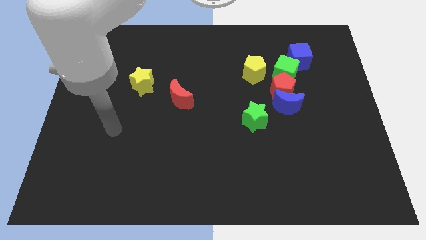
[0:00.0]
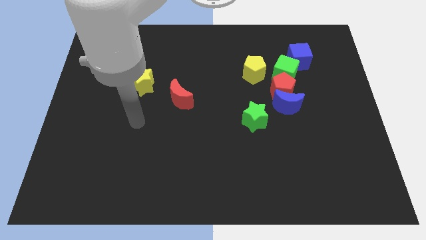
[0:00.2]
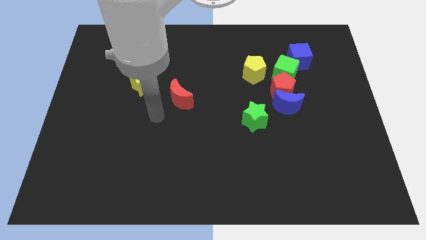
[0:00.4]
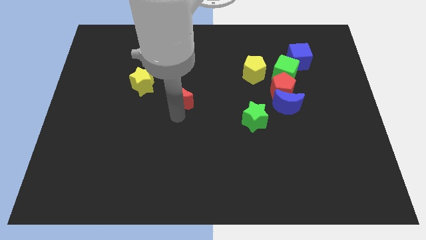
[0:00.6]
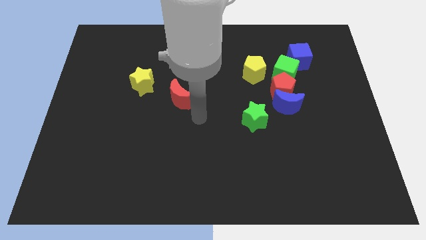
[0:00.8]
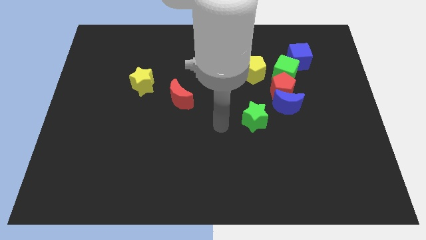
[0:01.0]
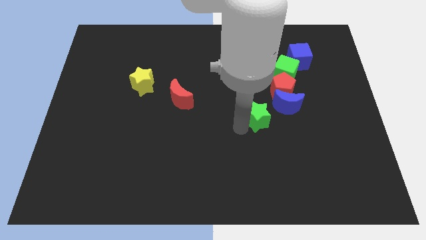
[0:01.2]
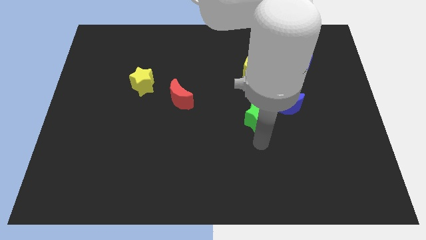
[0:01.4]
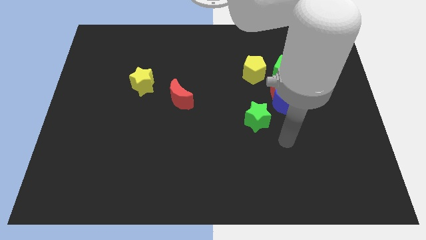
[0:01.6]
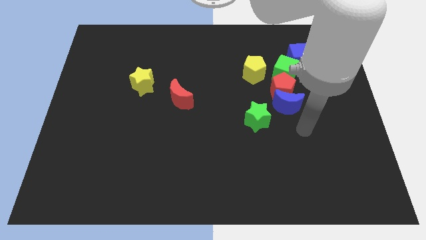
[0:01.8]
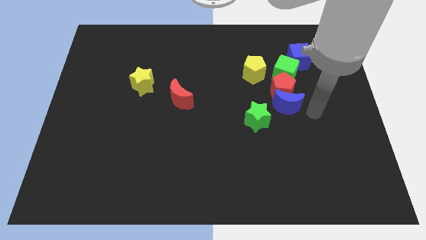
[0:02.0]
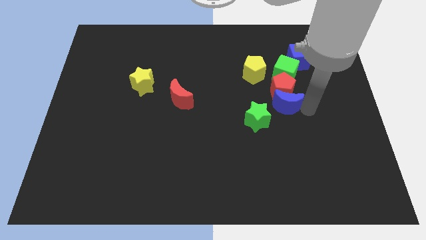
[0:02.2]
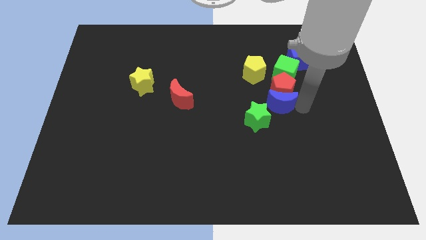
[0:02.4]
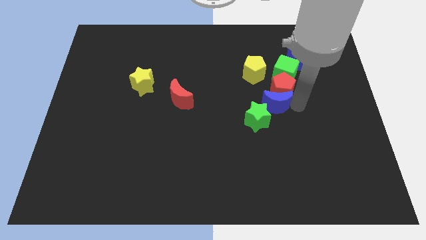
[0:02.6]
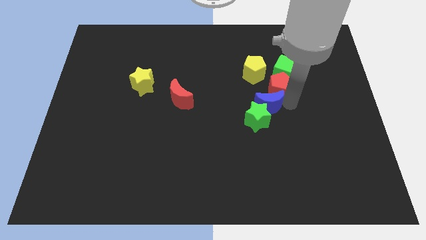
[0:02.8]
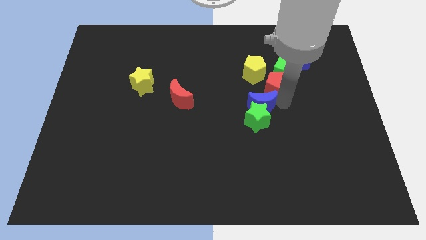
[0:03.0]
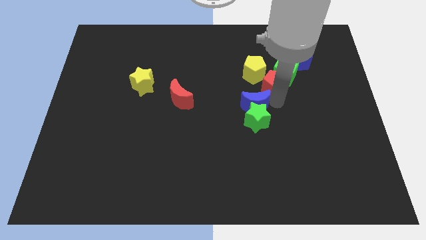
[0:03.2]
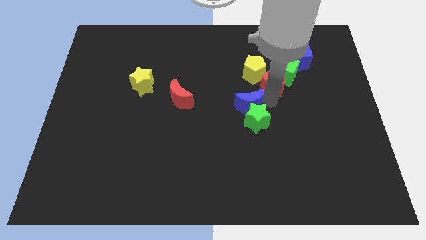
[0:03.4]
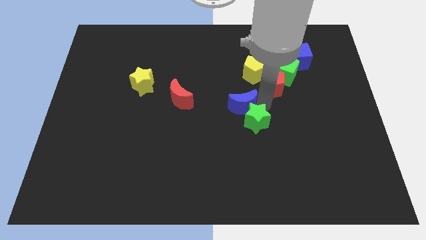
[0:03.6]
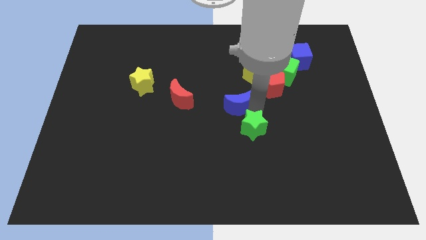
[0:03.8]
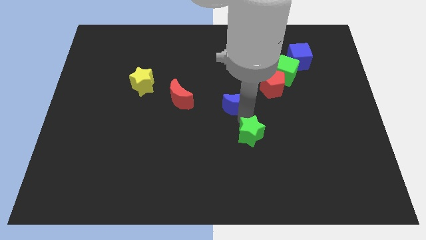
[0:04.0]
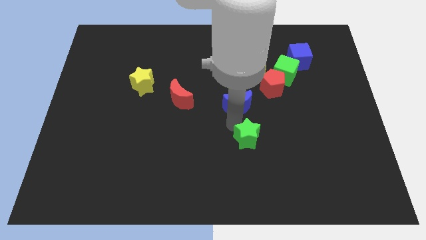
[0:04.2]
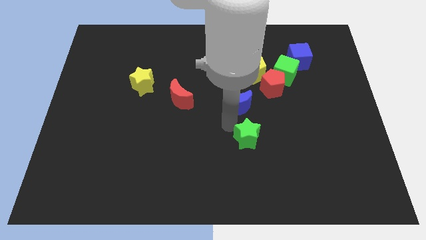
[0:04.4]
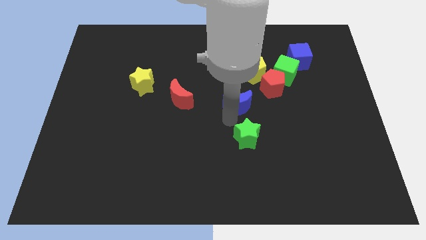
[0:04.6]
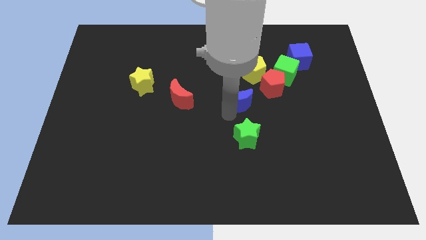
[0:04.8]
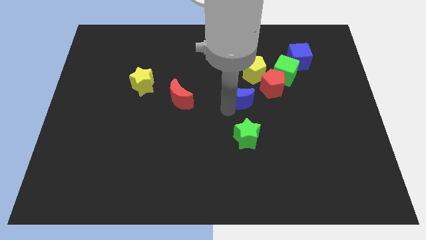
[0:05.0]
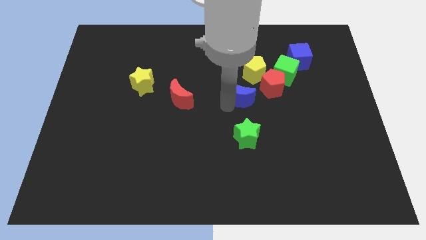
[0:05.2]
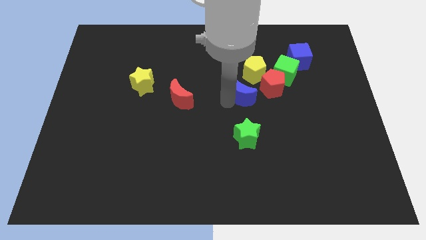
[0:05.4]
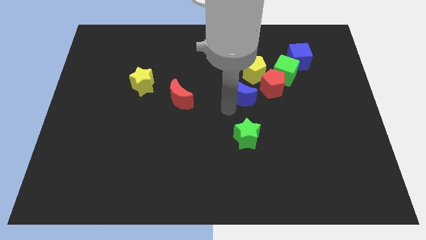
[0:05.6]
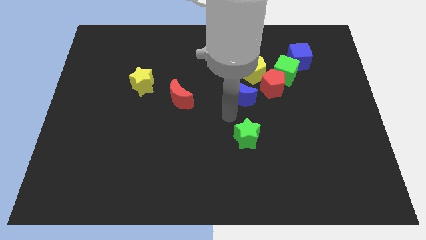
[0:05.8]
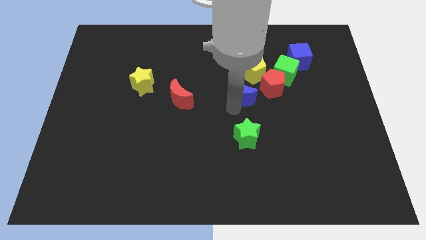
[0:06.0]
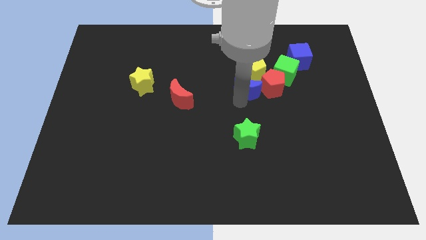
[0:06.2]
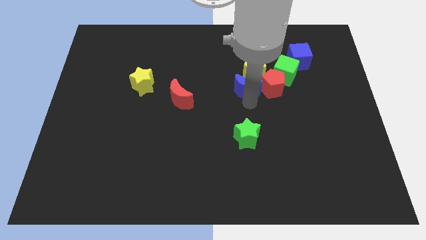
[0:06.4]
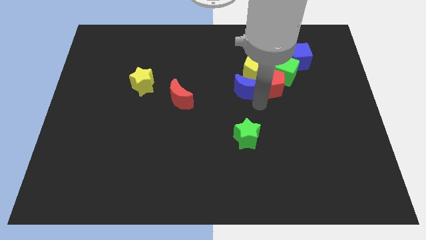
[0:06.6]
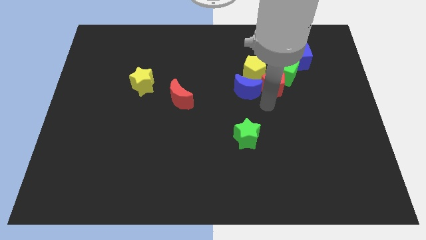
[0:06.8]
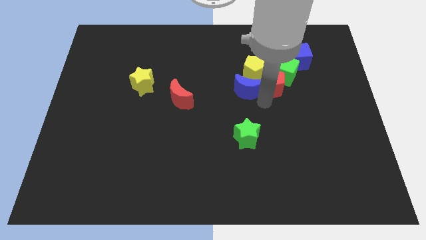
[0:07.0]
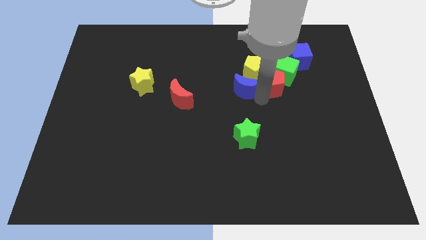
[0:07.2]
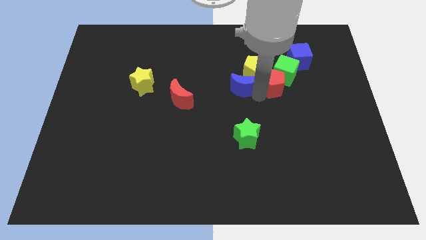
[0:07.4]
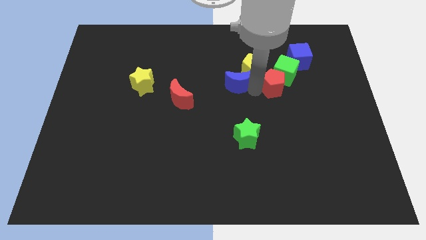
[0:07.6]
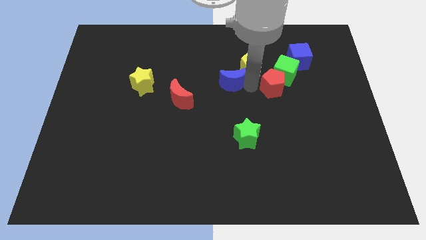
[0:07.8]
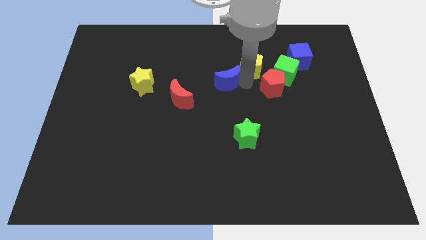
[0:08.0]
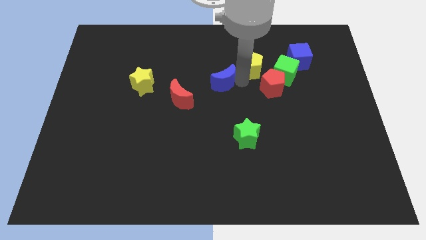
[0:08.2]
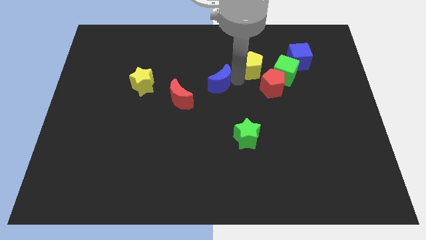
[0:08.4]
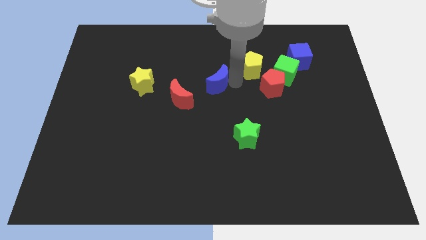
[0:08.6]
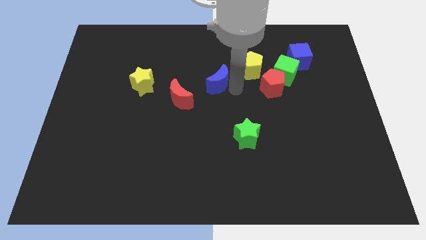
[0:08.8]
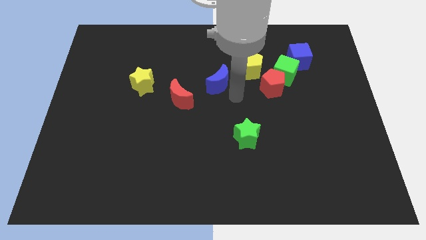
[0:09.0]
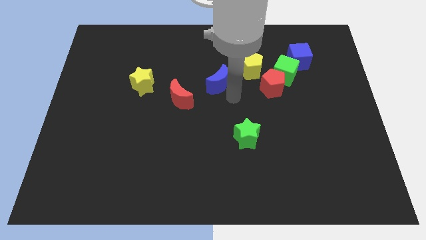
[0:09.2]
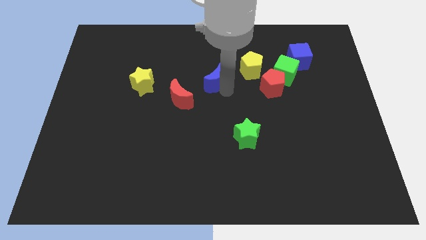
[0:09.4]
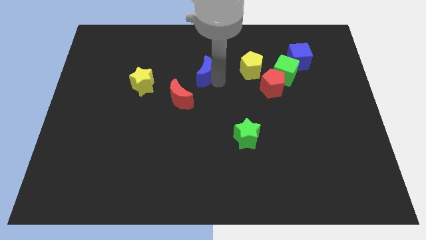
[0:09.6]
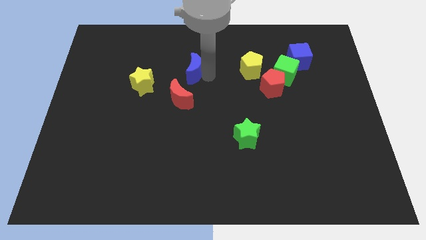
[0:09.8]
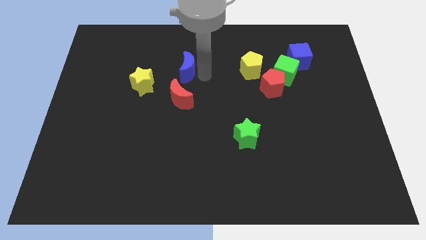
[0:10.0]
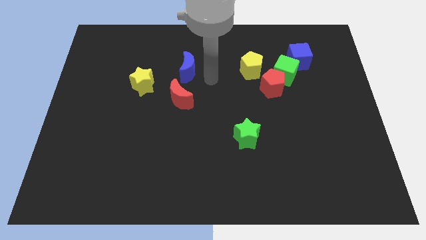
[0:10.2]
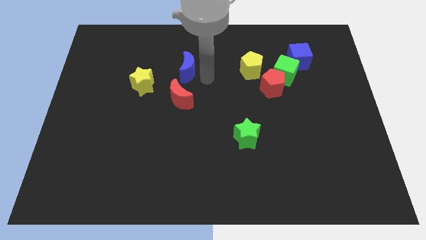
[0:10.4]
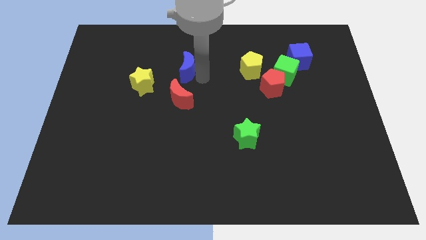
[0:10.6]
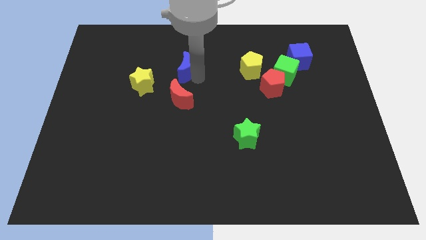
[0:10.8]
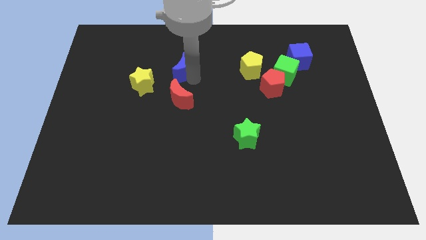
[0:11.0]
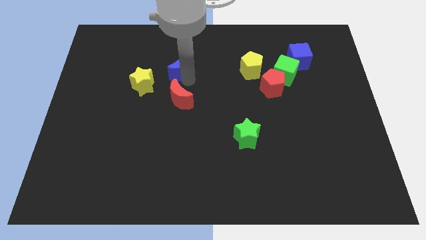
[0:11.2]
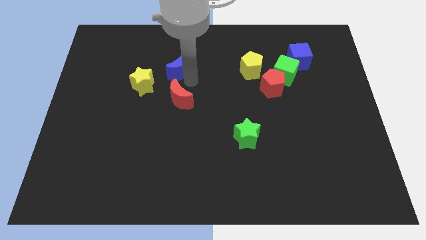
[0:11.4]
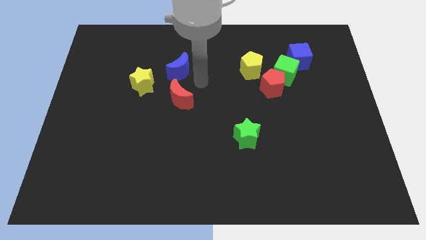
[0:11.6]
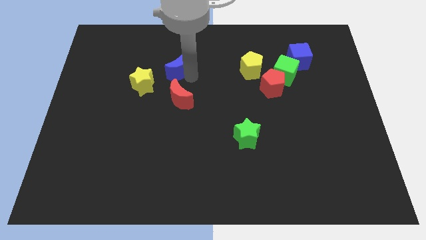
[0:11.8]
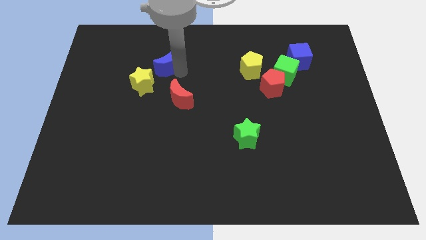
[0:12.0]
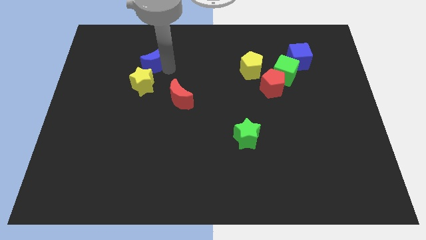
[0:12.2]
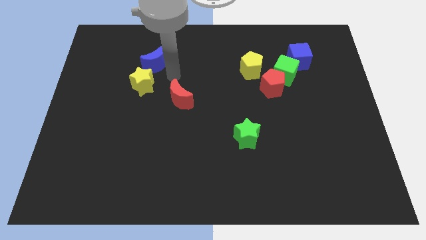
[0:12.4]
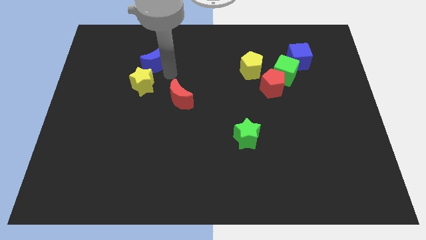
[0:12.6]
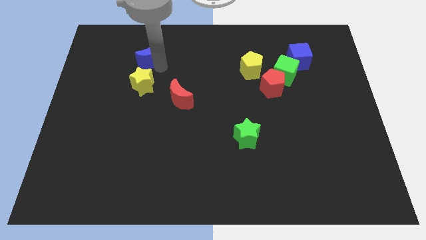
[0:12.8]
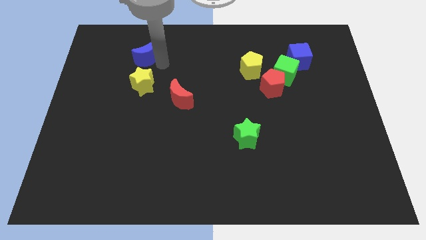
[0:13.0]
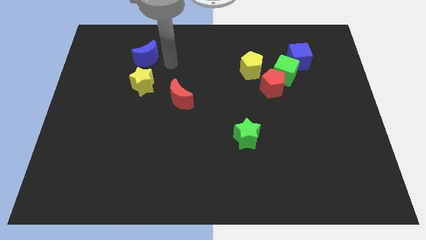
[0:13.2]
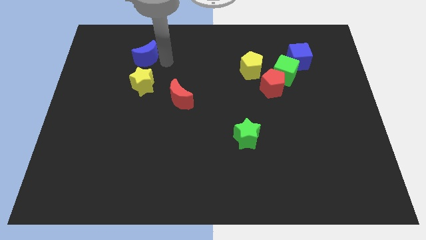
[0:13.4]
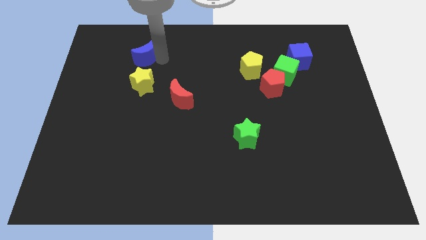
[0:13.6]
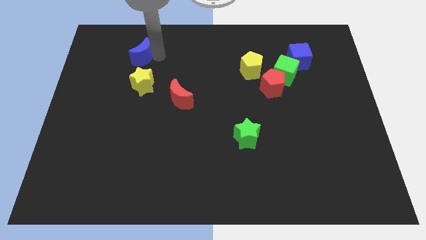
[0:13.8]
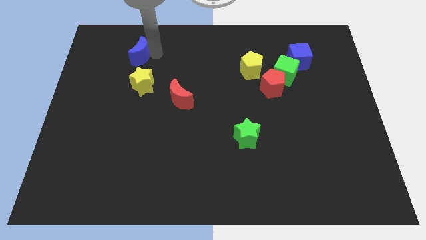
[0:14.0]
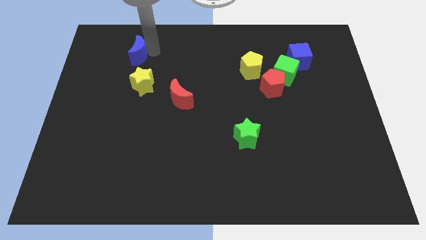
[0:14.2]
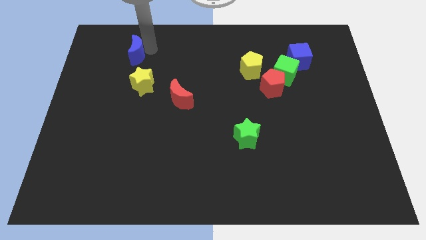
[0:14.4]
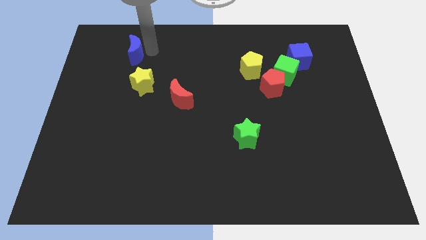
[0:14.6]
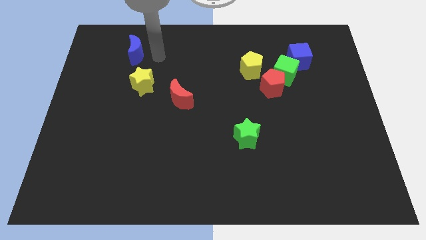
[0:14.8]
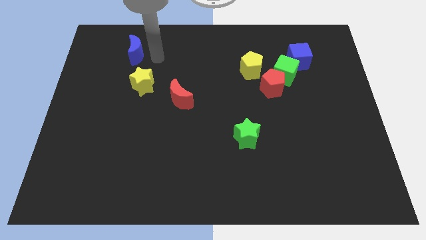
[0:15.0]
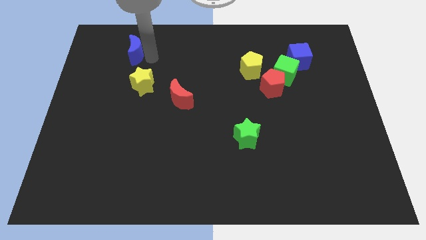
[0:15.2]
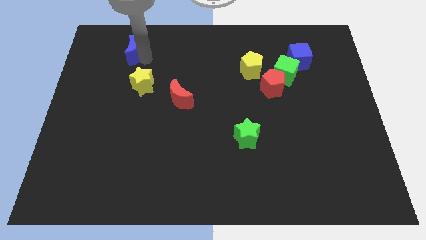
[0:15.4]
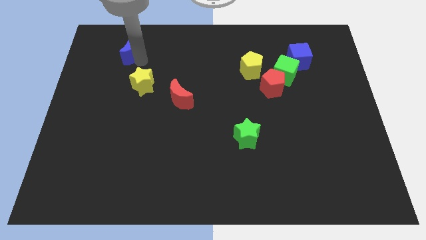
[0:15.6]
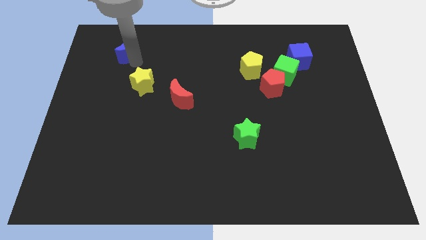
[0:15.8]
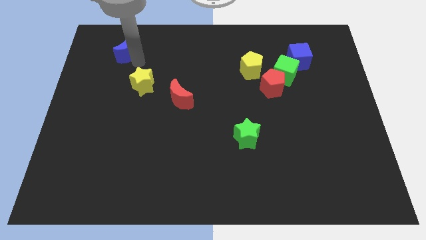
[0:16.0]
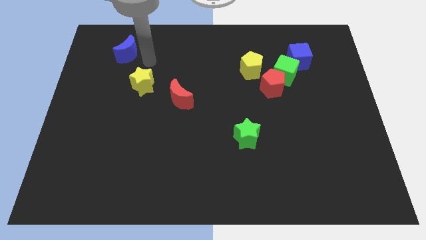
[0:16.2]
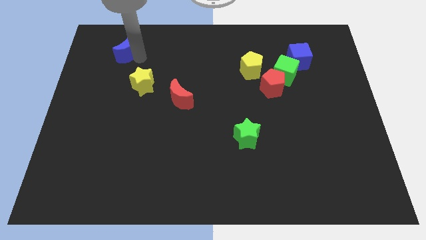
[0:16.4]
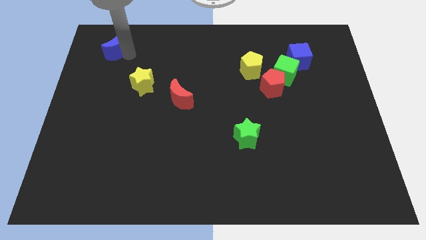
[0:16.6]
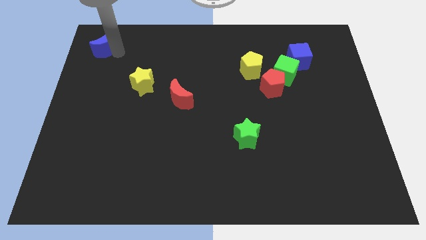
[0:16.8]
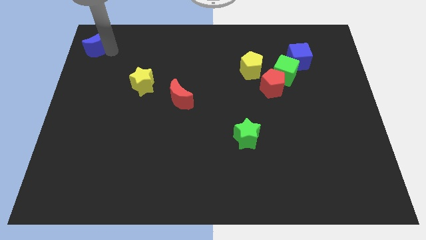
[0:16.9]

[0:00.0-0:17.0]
move the blue moon to the top left of the board
